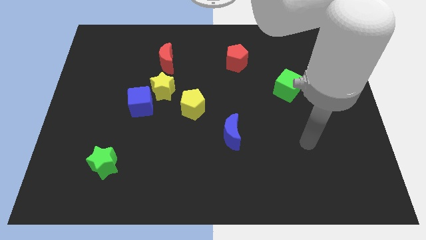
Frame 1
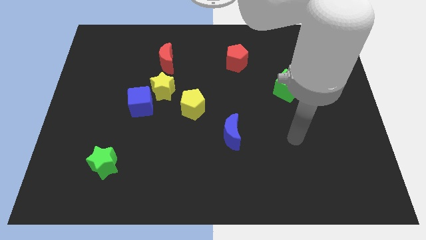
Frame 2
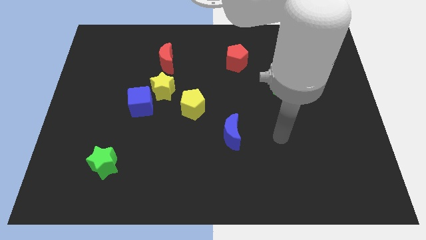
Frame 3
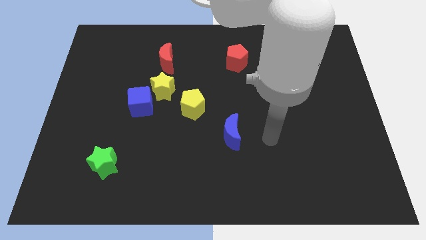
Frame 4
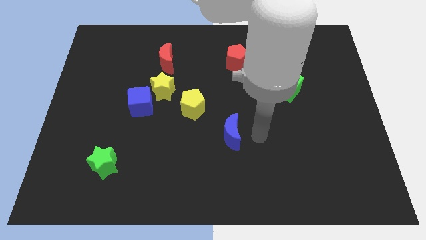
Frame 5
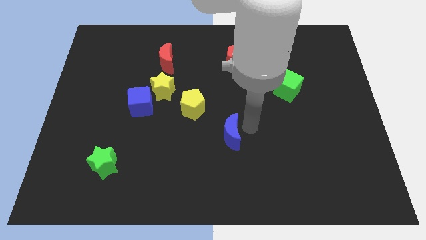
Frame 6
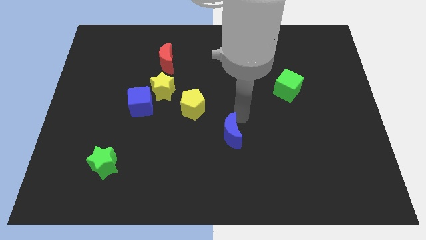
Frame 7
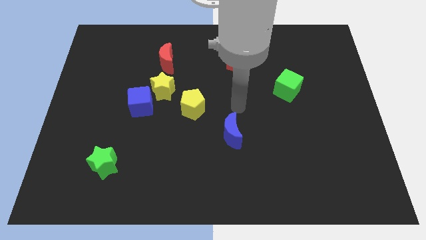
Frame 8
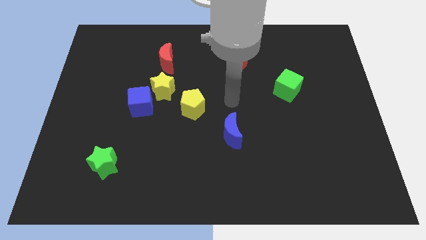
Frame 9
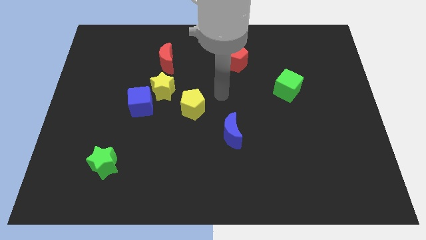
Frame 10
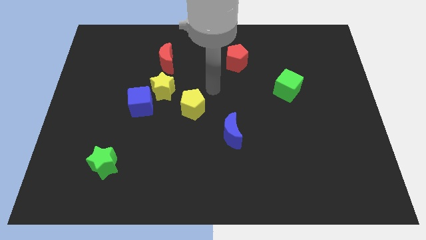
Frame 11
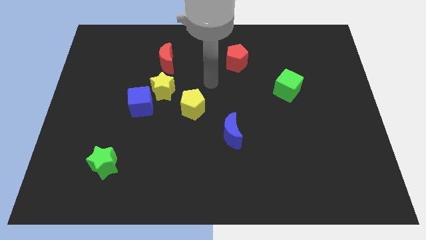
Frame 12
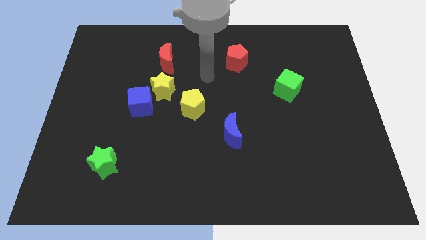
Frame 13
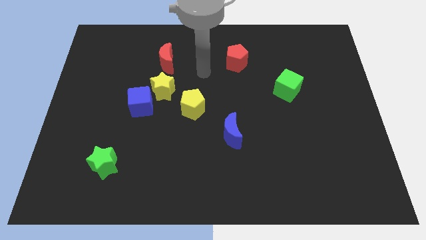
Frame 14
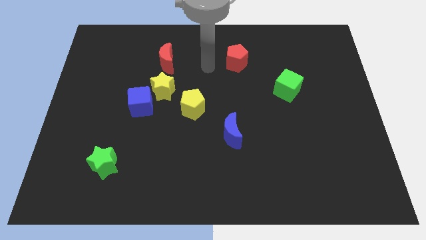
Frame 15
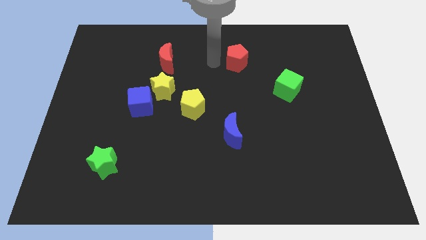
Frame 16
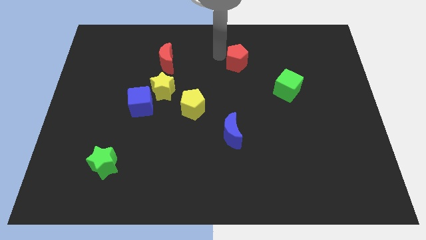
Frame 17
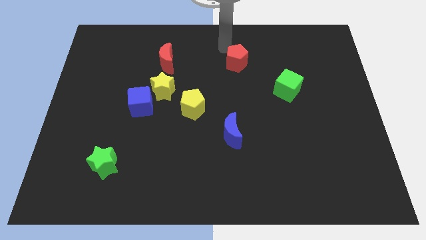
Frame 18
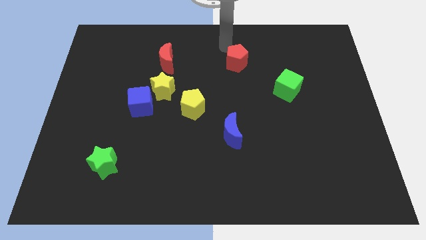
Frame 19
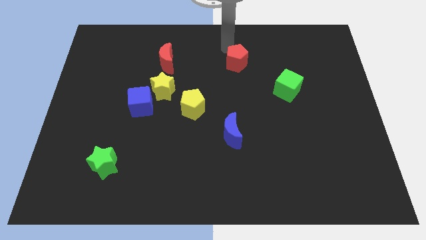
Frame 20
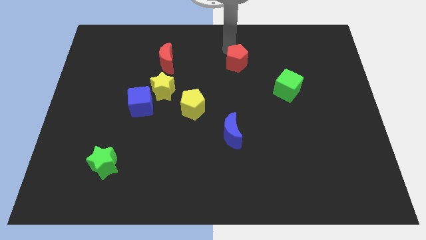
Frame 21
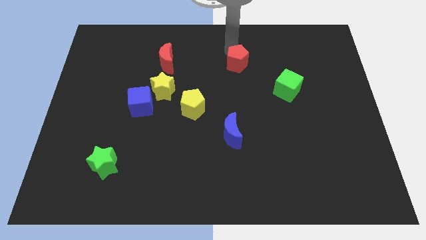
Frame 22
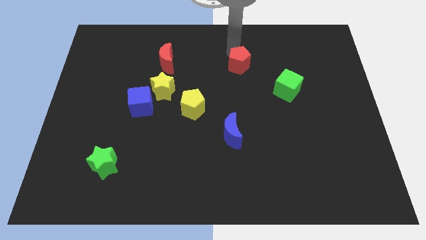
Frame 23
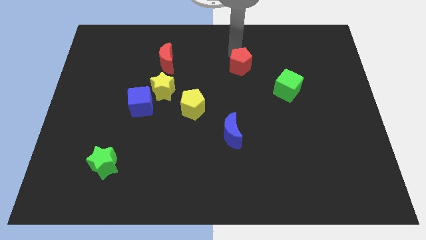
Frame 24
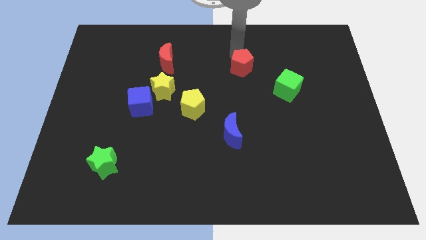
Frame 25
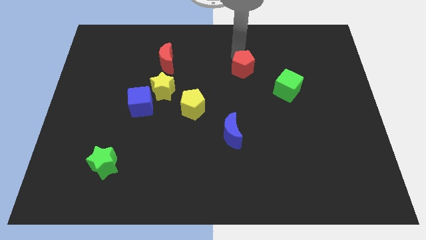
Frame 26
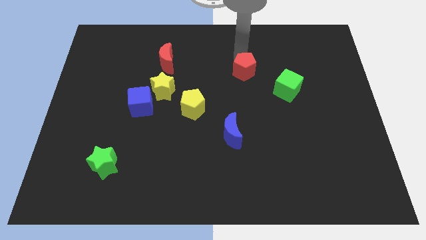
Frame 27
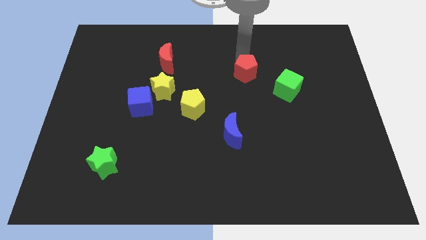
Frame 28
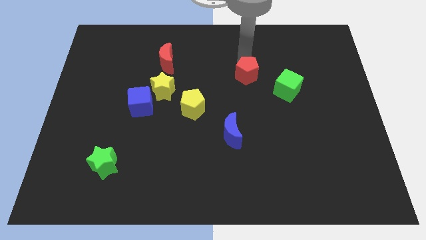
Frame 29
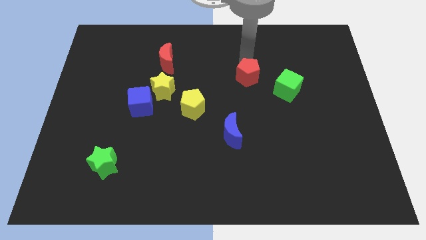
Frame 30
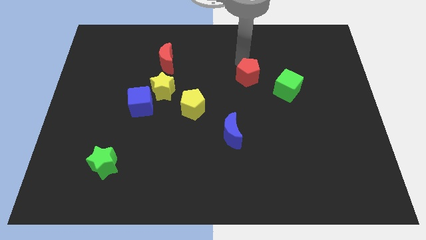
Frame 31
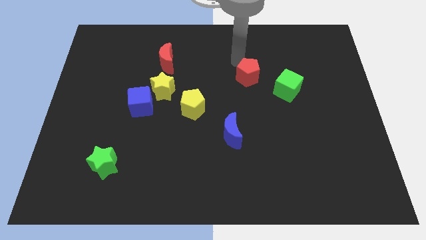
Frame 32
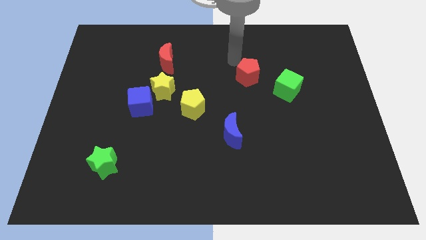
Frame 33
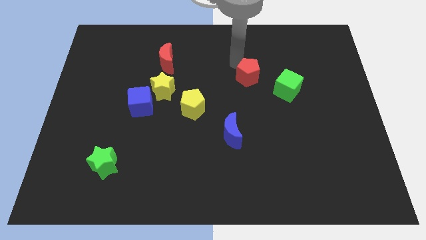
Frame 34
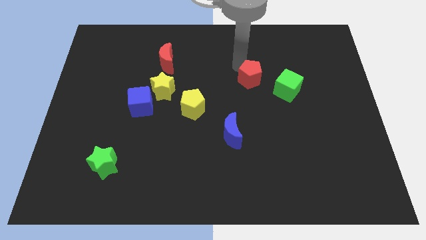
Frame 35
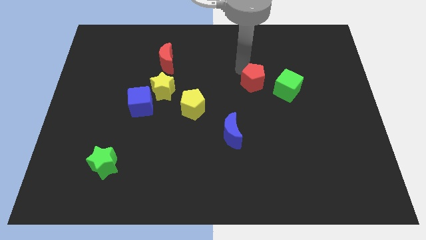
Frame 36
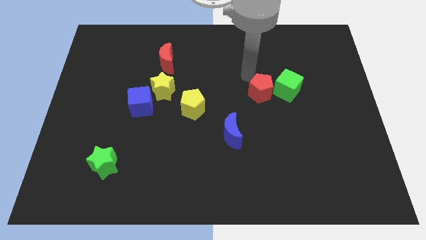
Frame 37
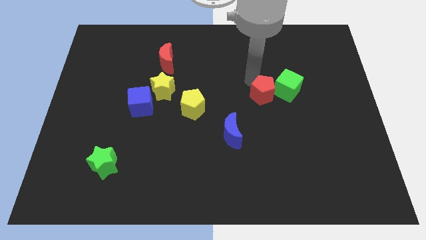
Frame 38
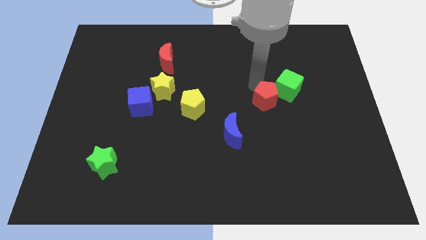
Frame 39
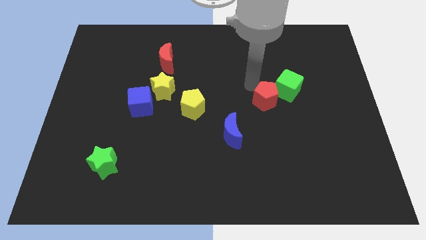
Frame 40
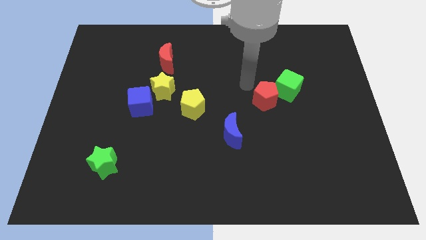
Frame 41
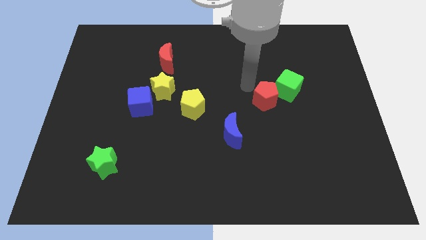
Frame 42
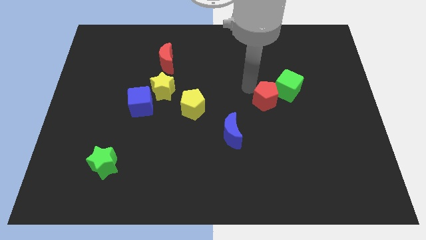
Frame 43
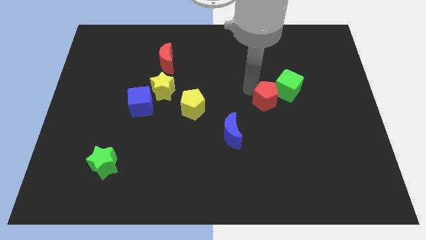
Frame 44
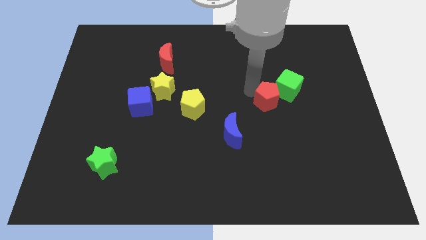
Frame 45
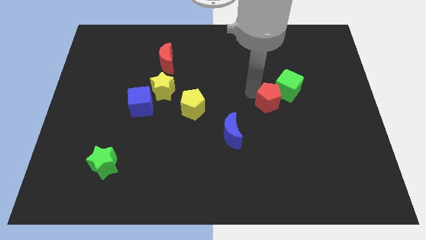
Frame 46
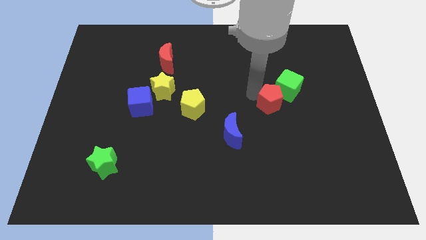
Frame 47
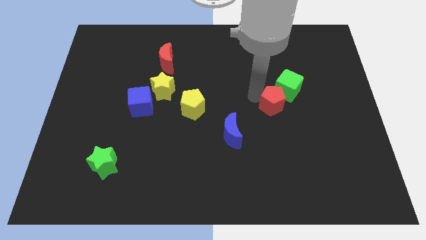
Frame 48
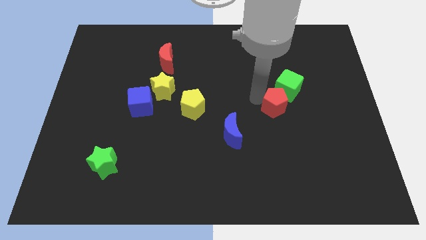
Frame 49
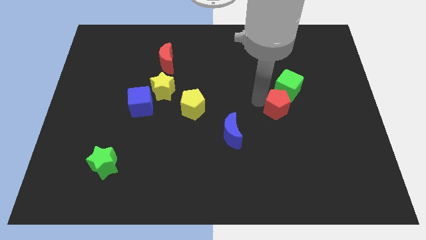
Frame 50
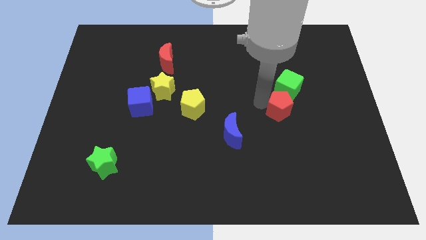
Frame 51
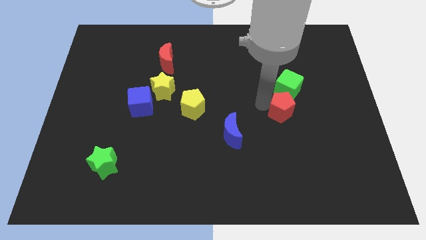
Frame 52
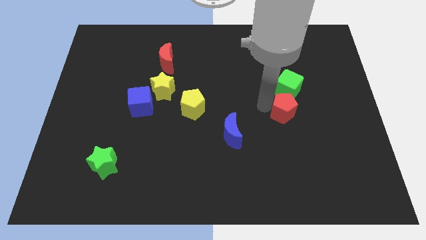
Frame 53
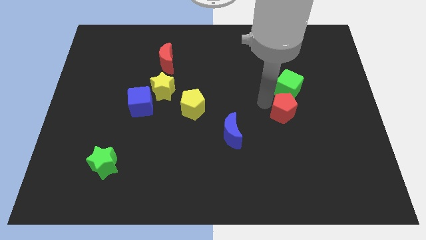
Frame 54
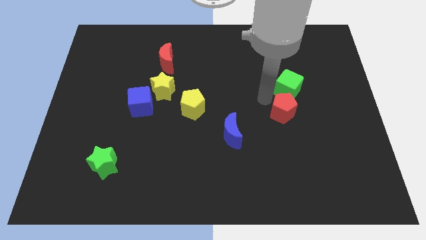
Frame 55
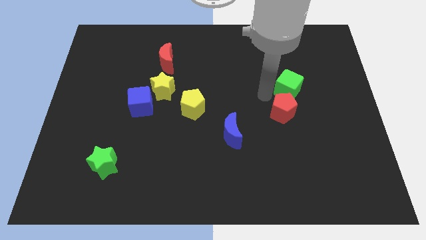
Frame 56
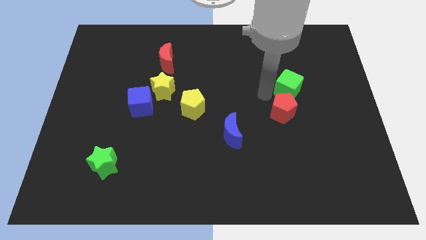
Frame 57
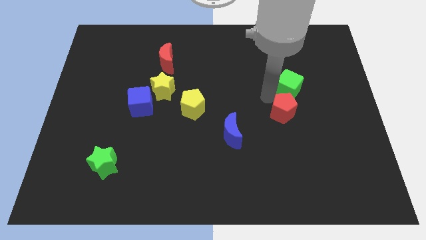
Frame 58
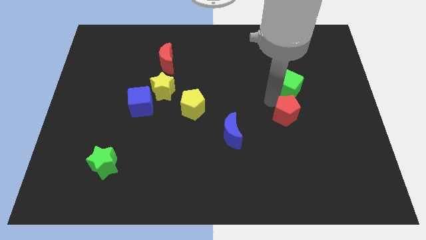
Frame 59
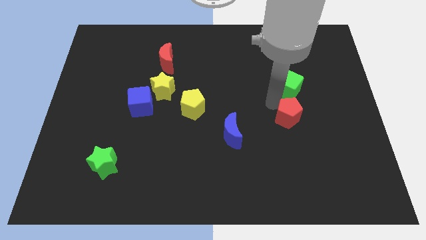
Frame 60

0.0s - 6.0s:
move the red pentagon down and then right

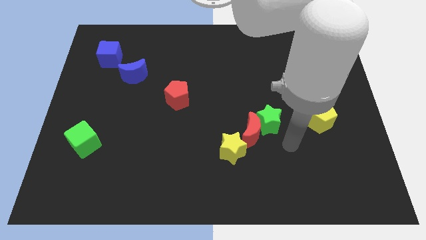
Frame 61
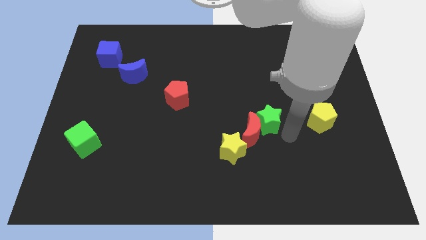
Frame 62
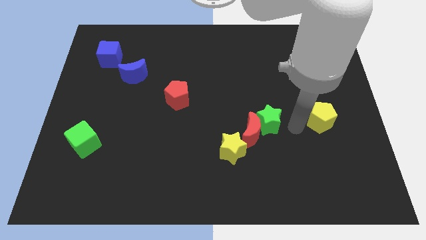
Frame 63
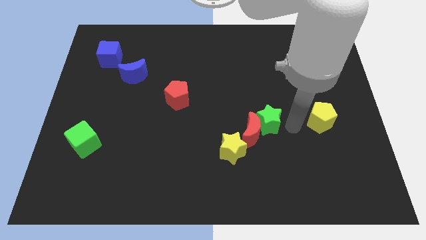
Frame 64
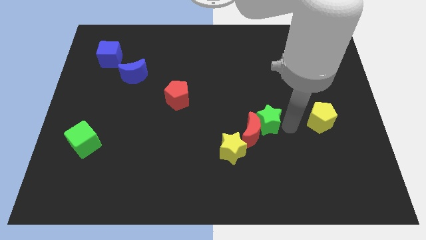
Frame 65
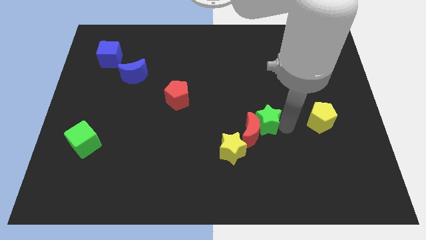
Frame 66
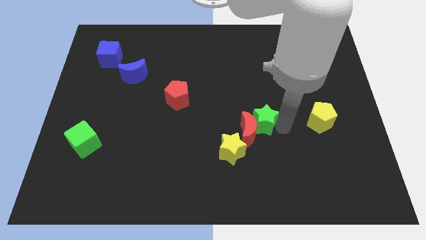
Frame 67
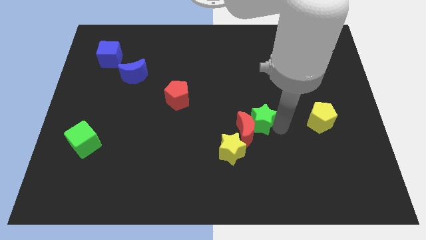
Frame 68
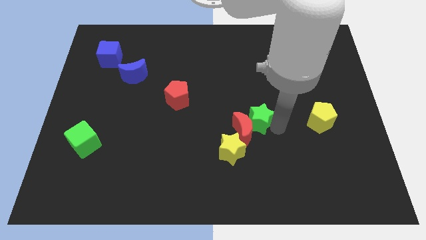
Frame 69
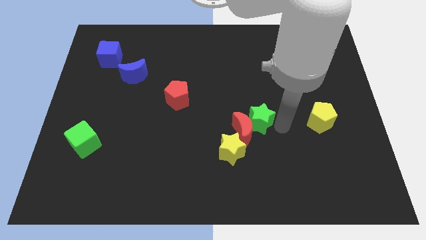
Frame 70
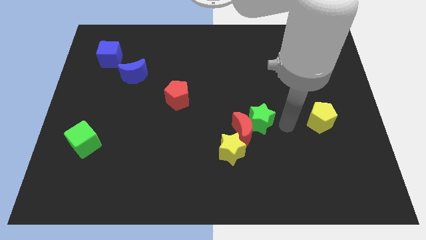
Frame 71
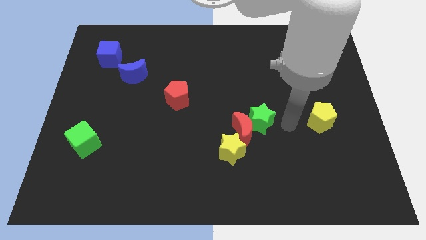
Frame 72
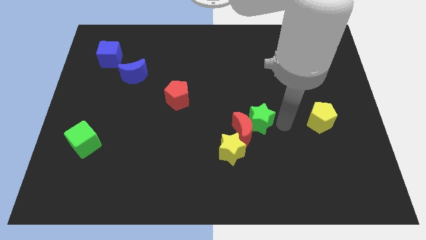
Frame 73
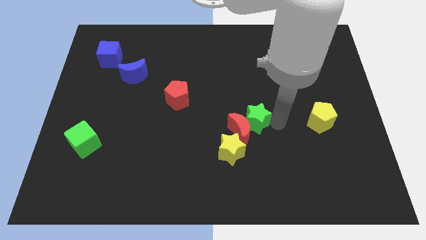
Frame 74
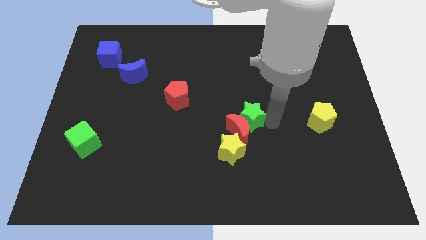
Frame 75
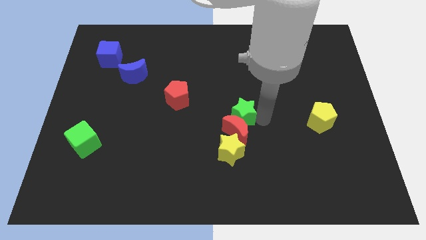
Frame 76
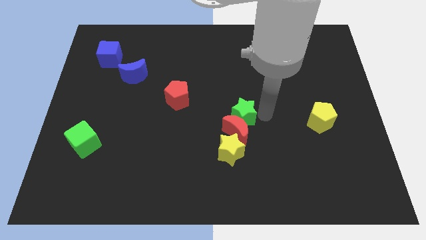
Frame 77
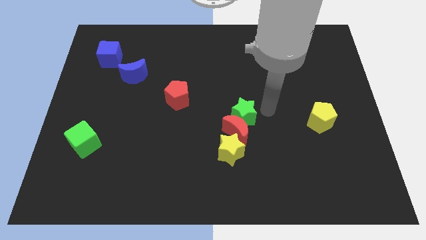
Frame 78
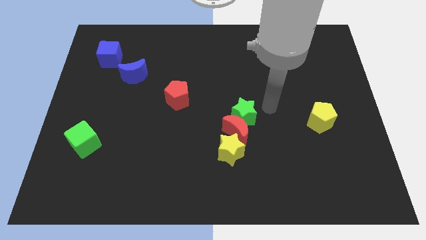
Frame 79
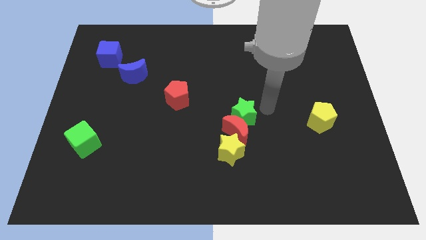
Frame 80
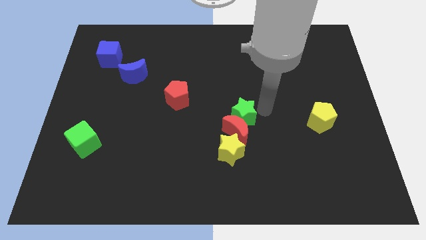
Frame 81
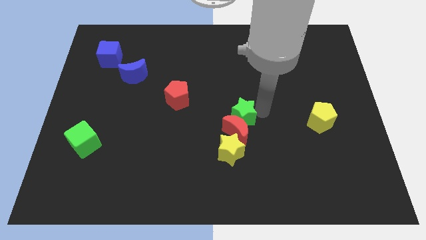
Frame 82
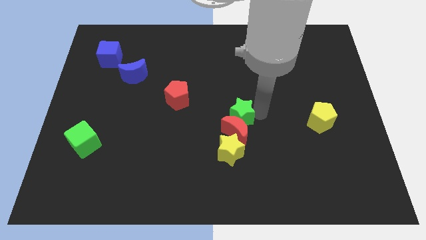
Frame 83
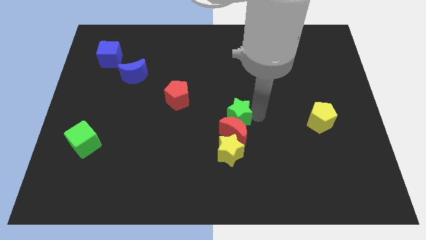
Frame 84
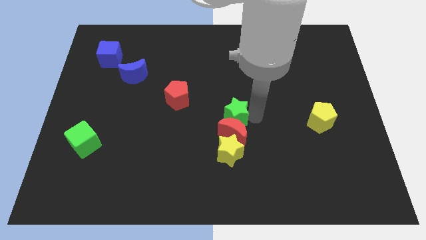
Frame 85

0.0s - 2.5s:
push the green star a little to the left
